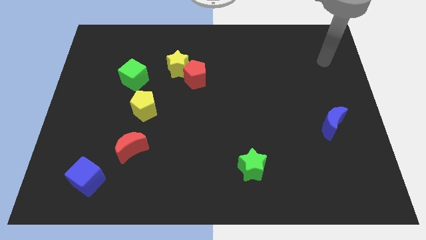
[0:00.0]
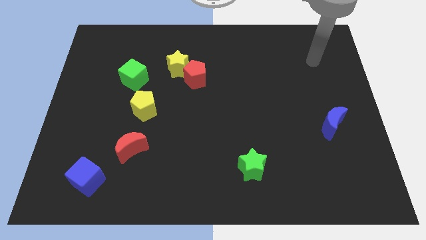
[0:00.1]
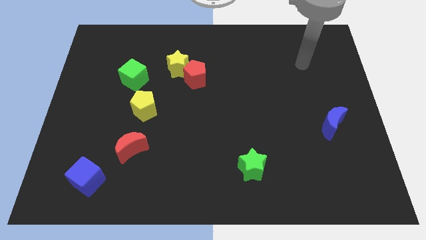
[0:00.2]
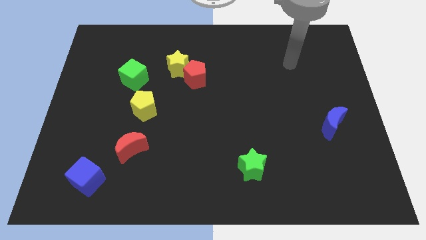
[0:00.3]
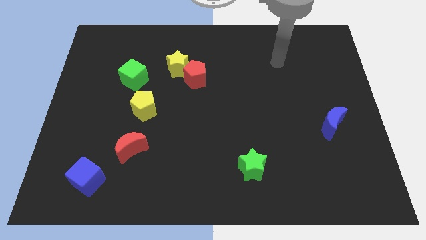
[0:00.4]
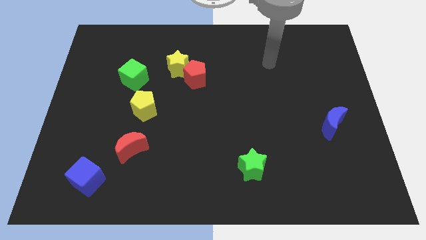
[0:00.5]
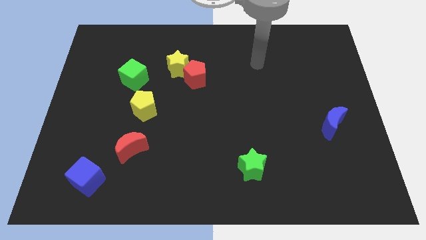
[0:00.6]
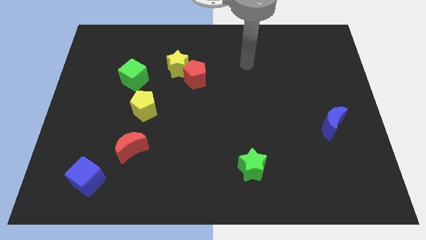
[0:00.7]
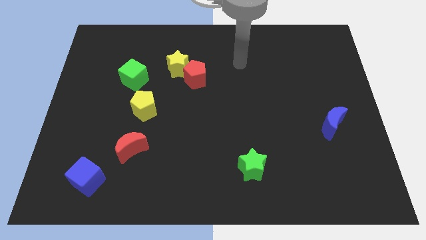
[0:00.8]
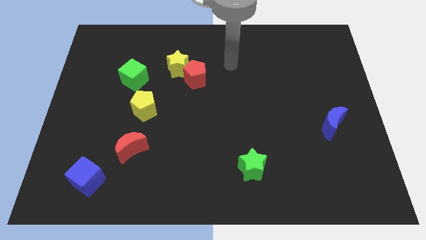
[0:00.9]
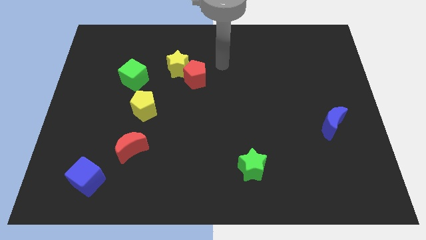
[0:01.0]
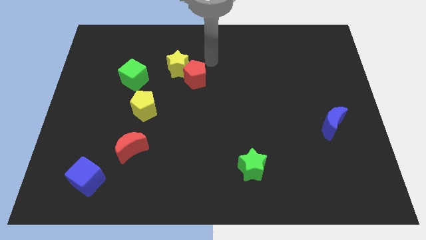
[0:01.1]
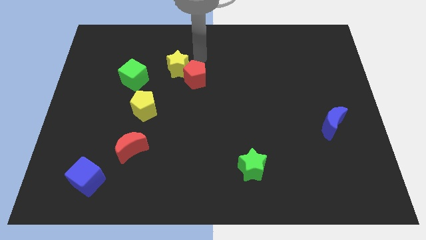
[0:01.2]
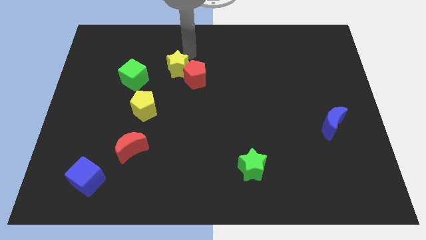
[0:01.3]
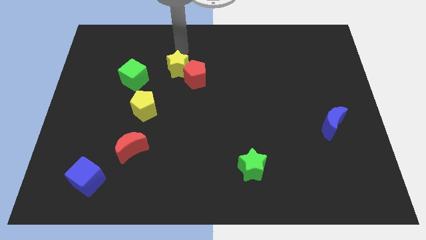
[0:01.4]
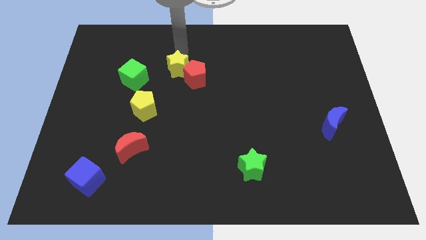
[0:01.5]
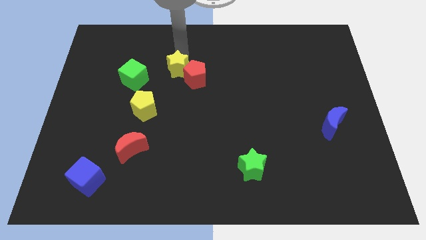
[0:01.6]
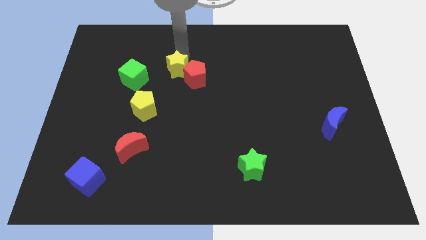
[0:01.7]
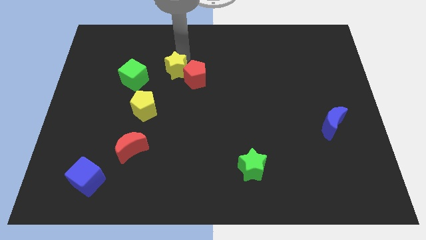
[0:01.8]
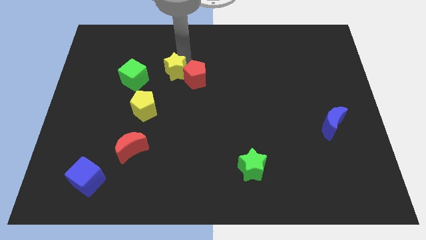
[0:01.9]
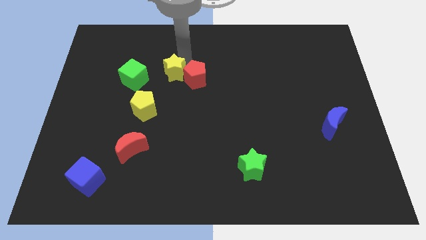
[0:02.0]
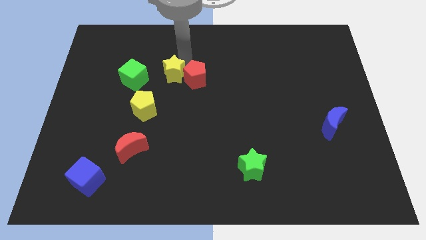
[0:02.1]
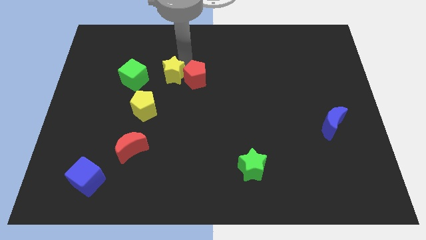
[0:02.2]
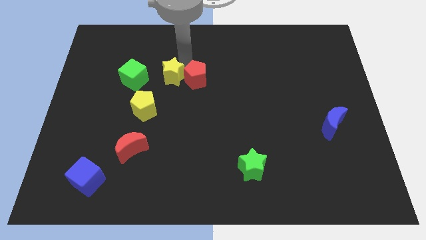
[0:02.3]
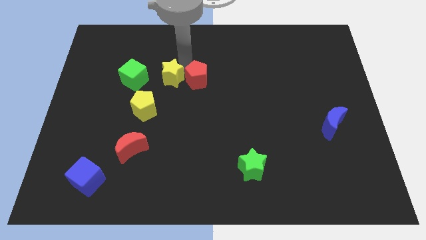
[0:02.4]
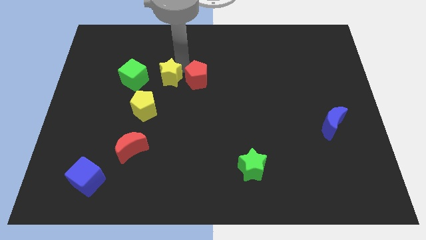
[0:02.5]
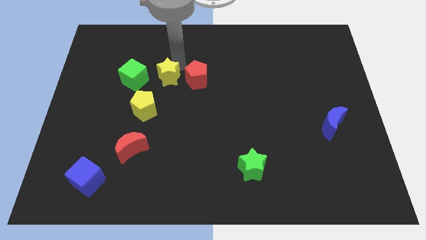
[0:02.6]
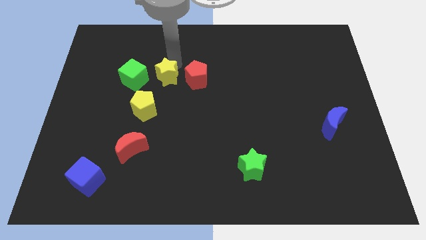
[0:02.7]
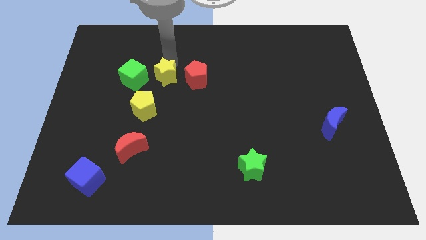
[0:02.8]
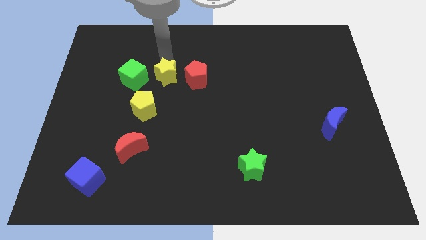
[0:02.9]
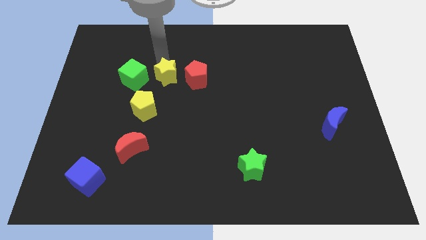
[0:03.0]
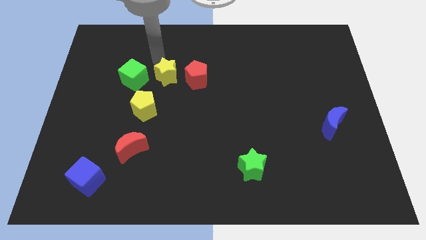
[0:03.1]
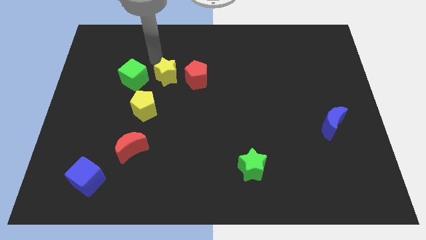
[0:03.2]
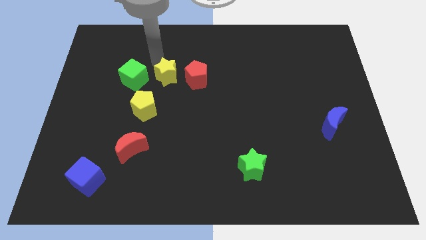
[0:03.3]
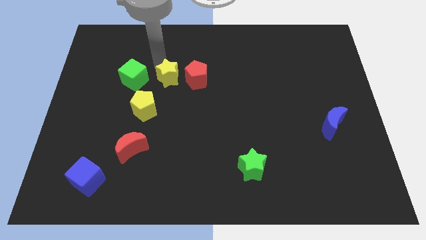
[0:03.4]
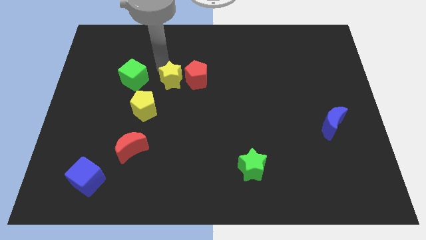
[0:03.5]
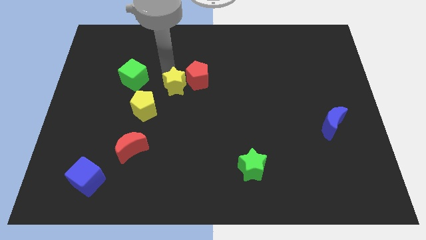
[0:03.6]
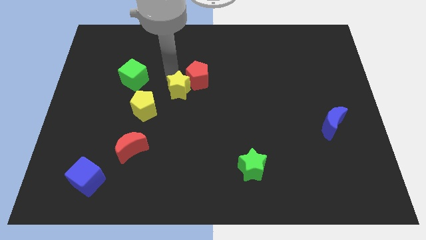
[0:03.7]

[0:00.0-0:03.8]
push the yellow star downwards somewhat

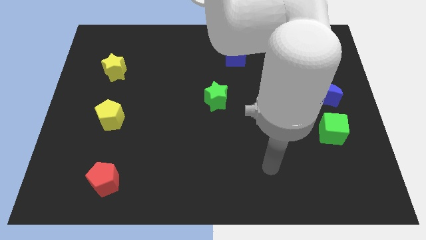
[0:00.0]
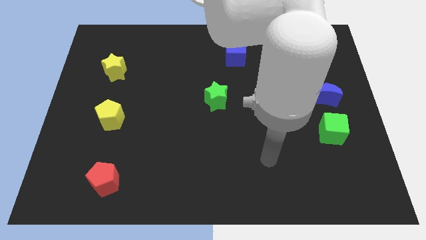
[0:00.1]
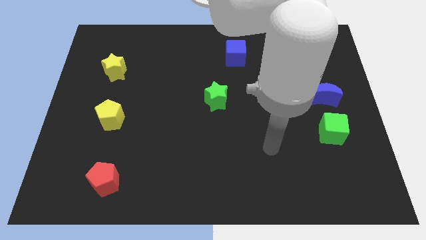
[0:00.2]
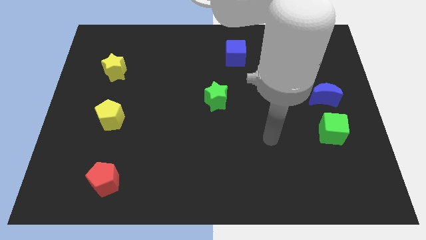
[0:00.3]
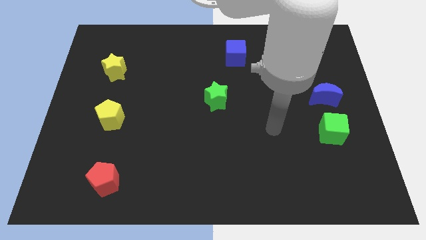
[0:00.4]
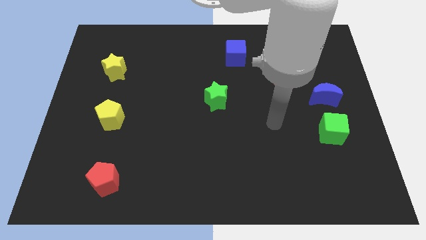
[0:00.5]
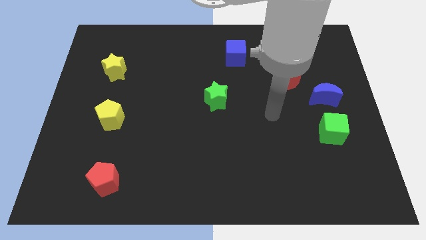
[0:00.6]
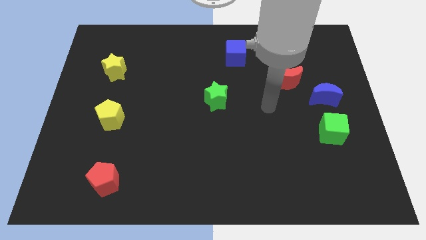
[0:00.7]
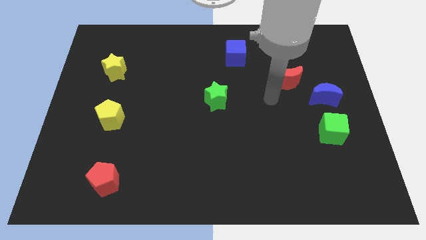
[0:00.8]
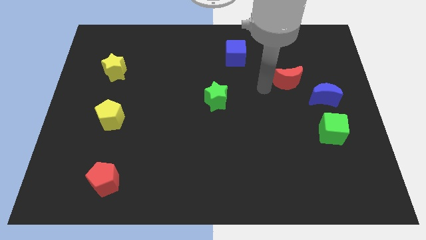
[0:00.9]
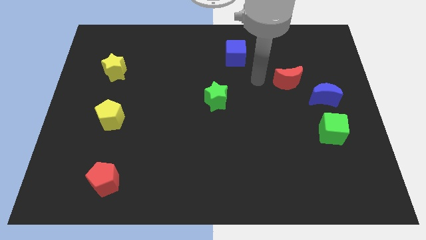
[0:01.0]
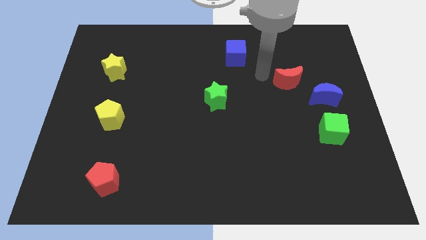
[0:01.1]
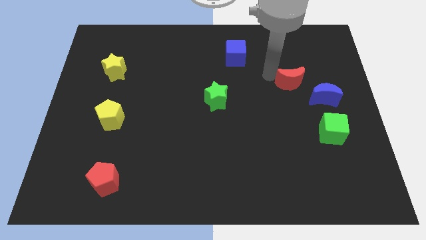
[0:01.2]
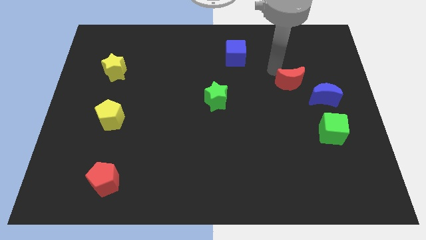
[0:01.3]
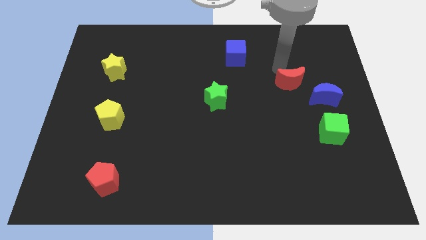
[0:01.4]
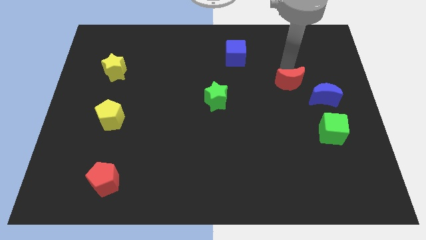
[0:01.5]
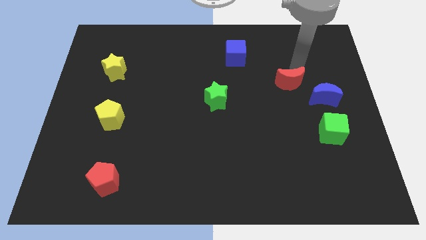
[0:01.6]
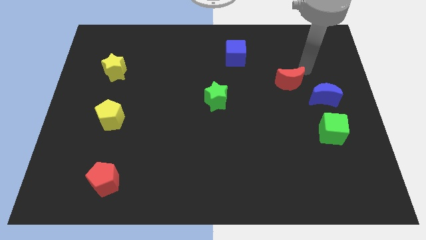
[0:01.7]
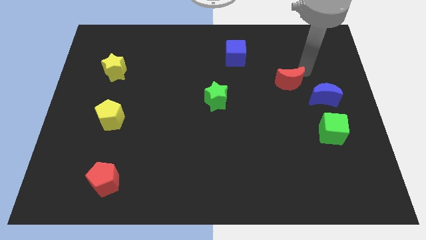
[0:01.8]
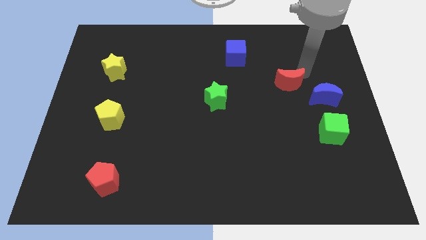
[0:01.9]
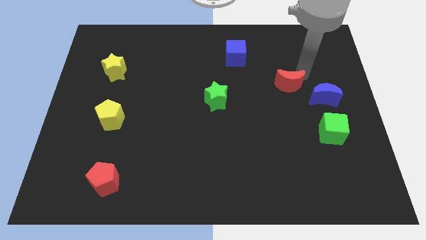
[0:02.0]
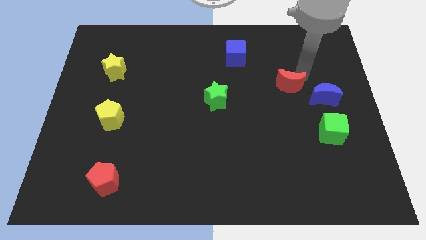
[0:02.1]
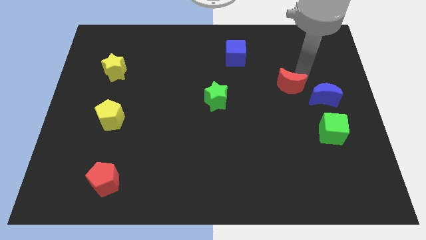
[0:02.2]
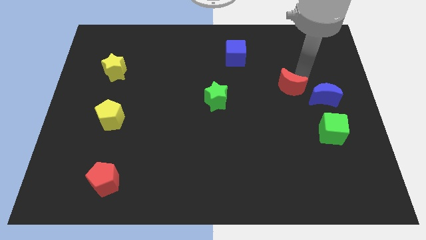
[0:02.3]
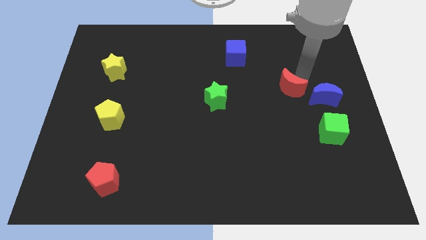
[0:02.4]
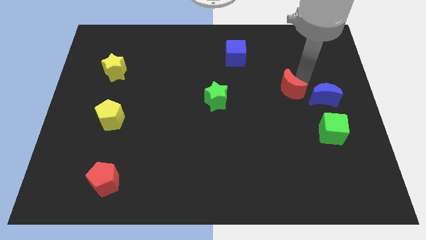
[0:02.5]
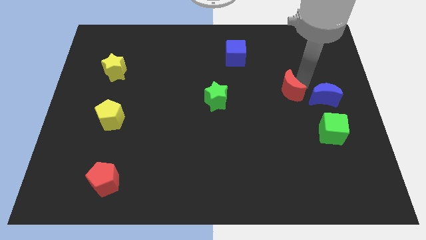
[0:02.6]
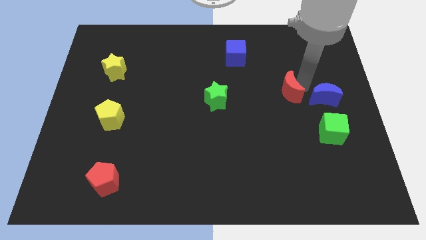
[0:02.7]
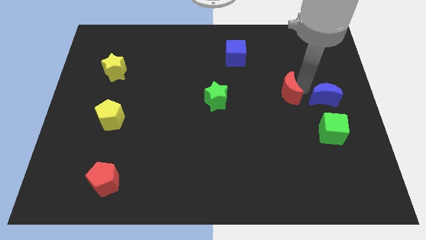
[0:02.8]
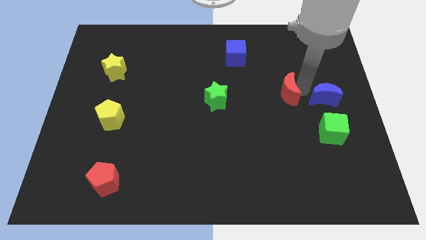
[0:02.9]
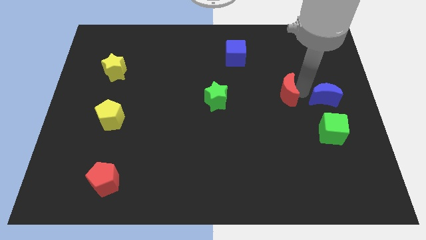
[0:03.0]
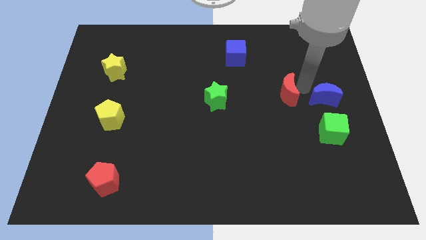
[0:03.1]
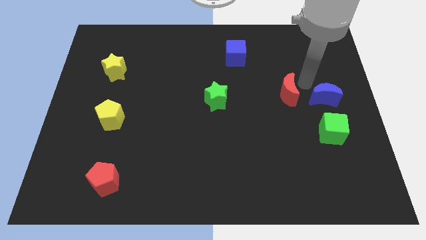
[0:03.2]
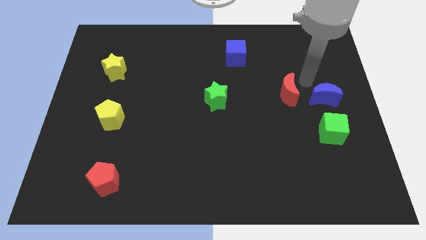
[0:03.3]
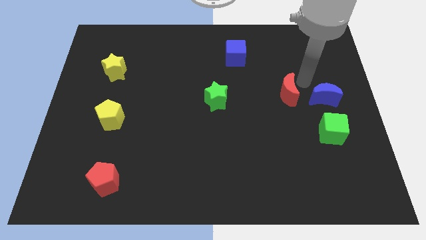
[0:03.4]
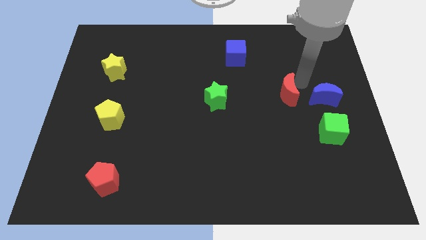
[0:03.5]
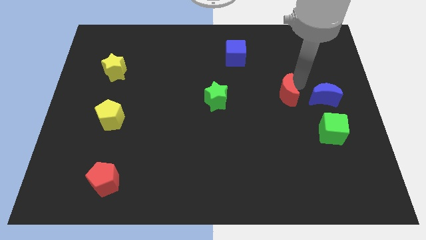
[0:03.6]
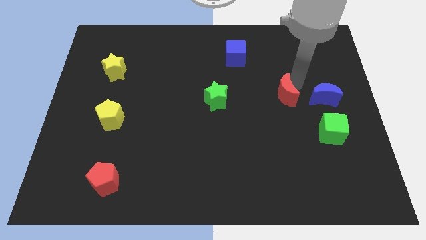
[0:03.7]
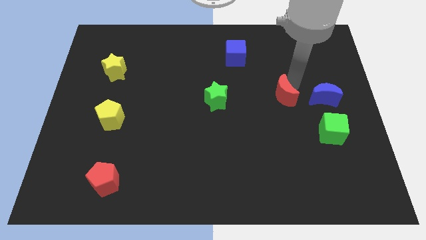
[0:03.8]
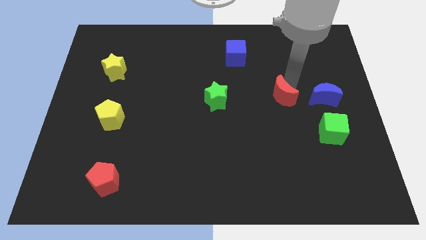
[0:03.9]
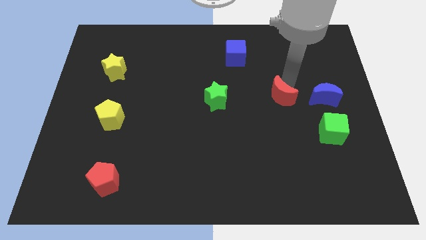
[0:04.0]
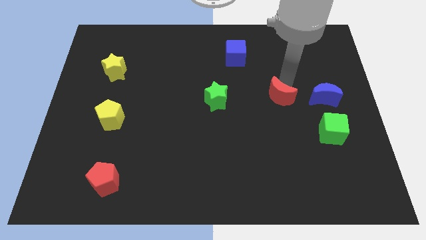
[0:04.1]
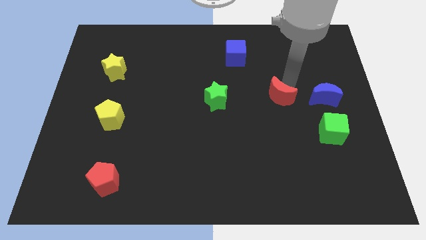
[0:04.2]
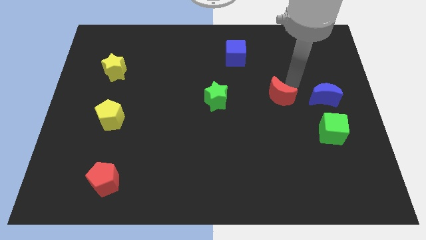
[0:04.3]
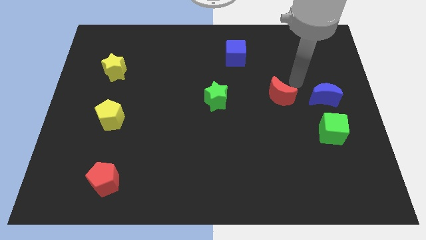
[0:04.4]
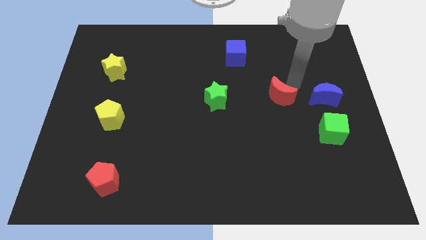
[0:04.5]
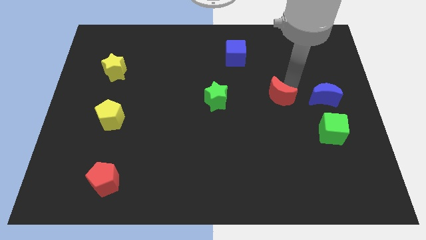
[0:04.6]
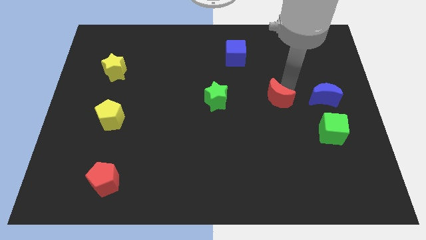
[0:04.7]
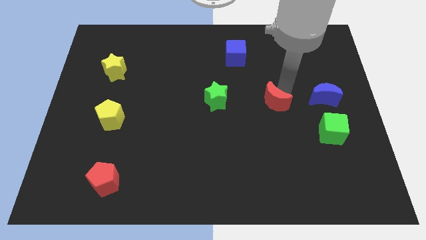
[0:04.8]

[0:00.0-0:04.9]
slightly slide the red moon diagonally down and to the left
